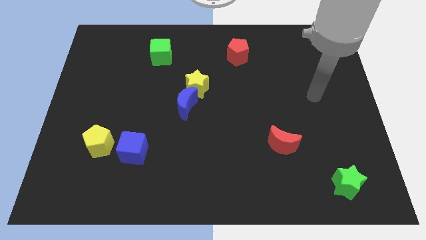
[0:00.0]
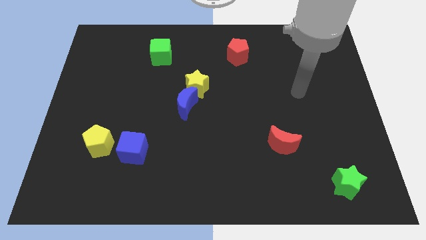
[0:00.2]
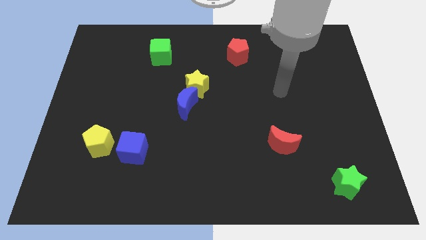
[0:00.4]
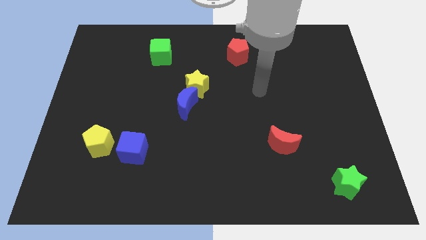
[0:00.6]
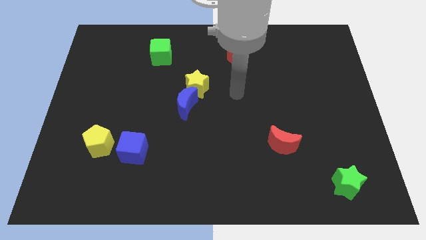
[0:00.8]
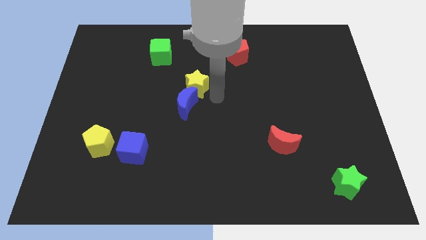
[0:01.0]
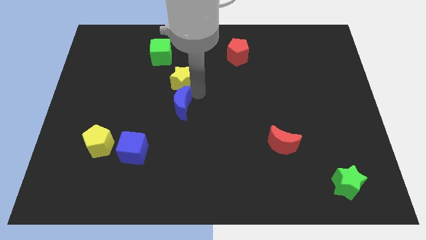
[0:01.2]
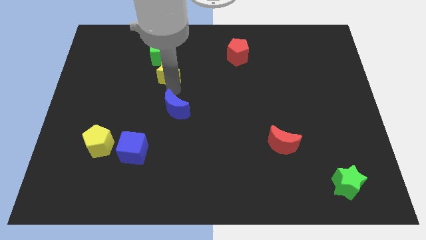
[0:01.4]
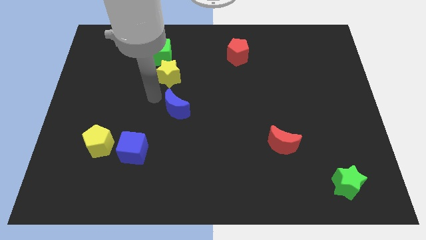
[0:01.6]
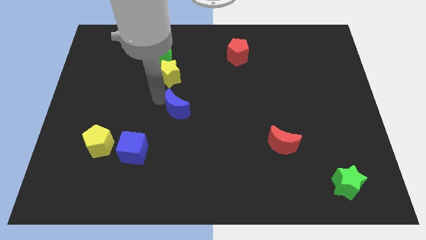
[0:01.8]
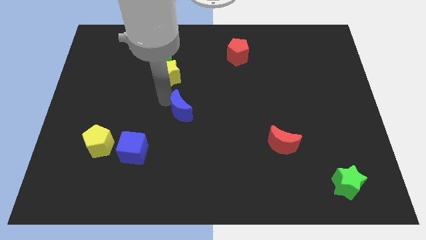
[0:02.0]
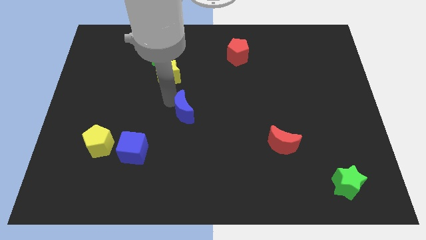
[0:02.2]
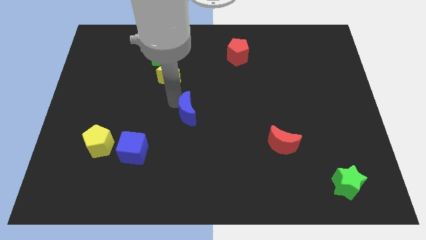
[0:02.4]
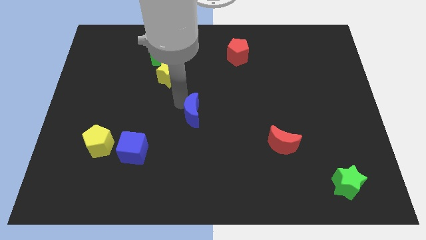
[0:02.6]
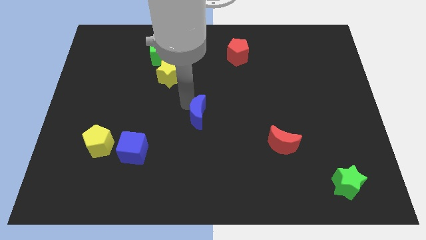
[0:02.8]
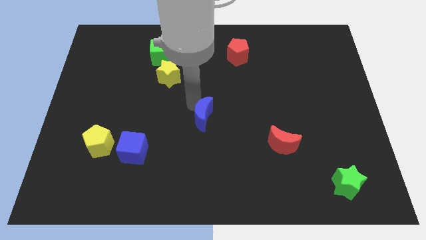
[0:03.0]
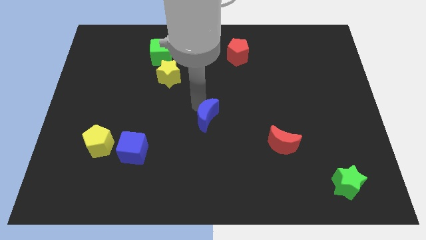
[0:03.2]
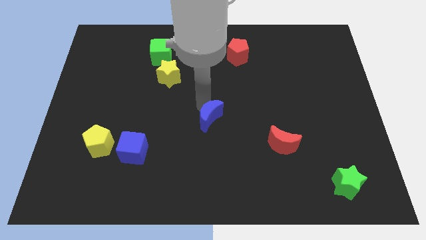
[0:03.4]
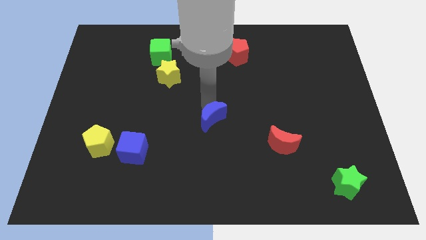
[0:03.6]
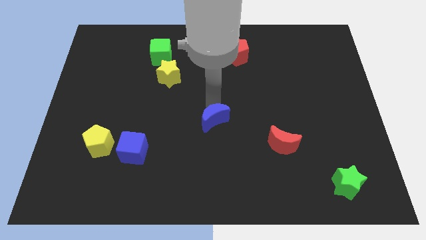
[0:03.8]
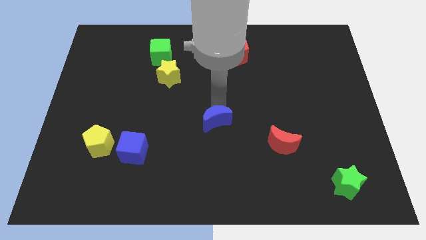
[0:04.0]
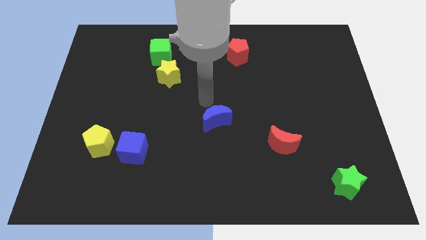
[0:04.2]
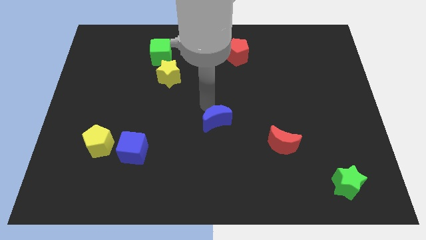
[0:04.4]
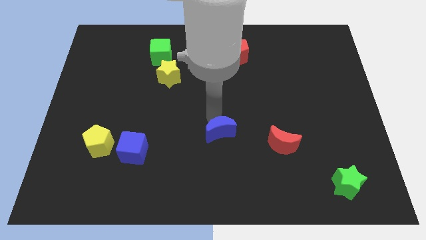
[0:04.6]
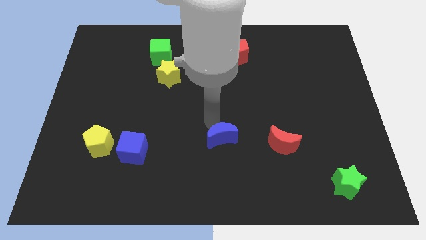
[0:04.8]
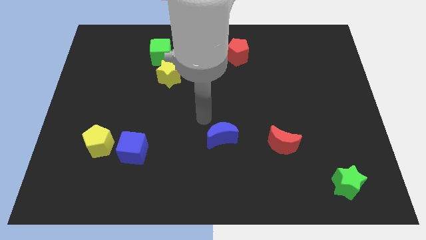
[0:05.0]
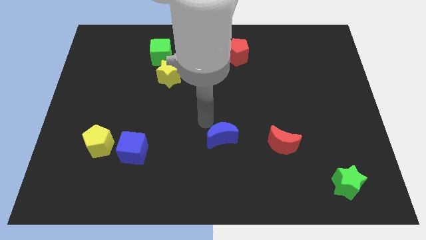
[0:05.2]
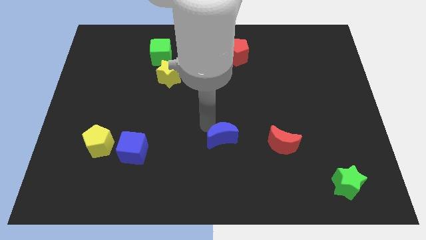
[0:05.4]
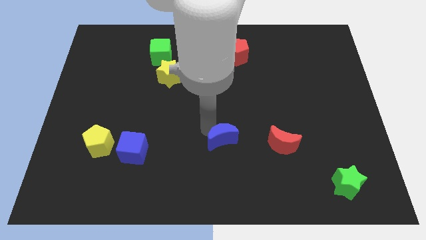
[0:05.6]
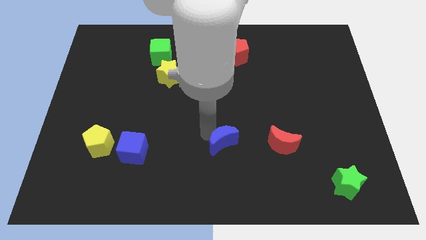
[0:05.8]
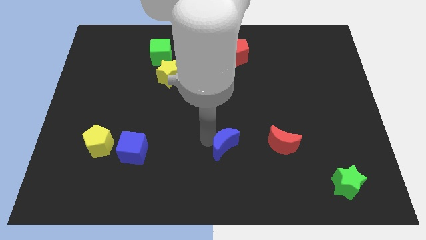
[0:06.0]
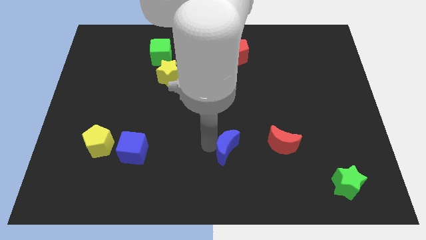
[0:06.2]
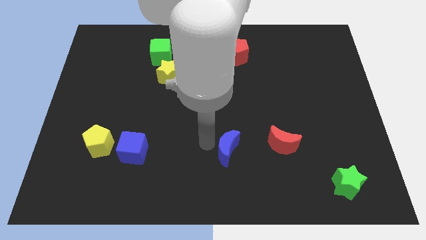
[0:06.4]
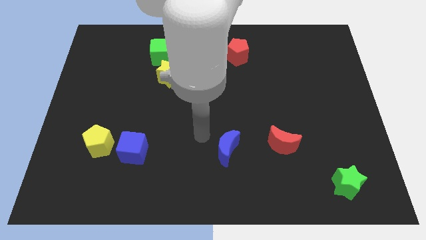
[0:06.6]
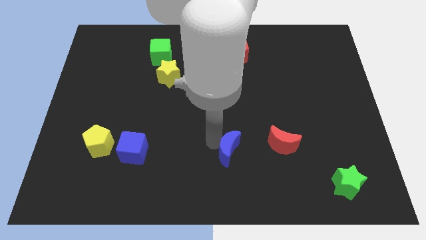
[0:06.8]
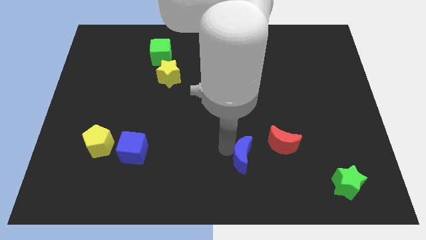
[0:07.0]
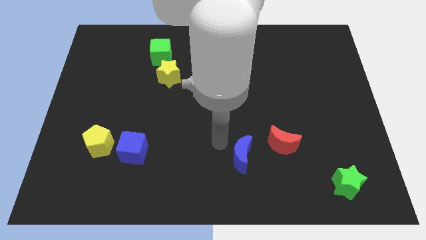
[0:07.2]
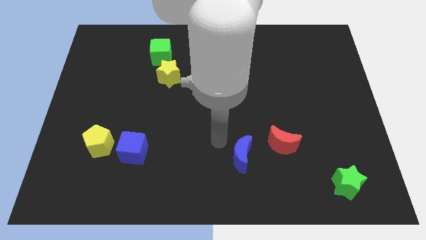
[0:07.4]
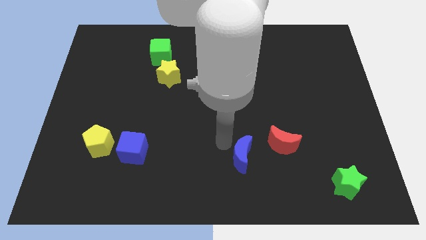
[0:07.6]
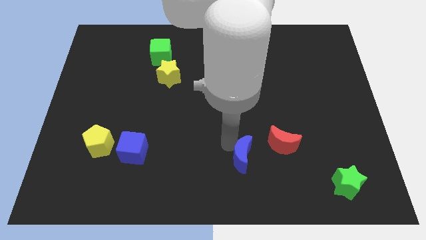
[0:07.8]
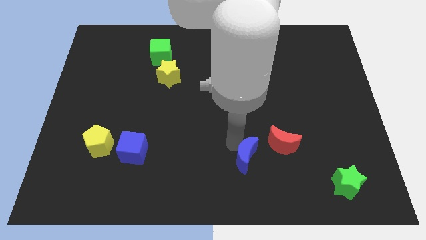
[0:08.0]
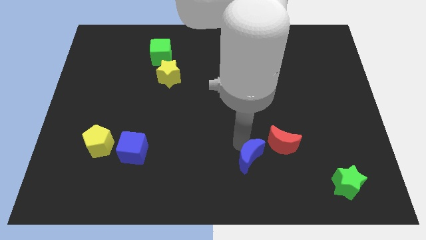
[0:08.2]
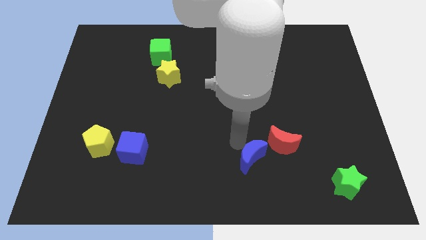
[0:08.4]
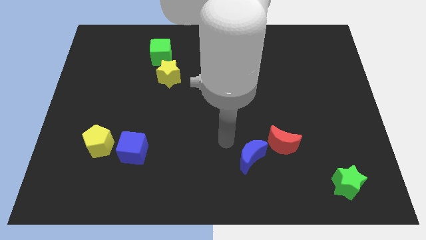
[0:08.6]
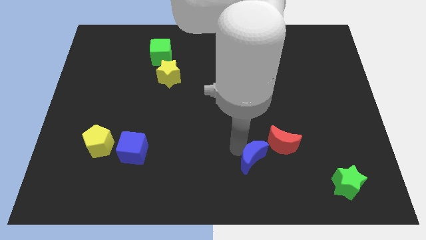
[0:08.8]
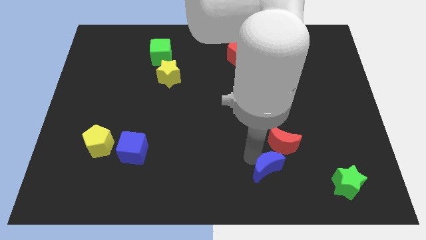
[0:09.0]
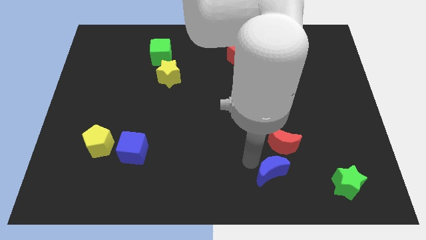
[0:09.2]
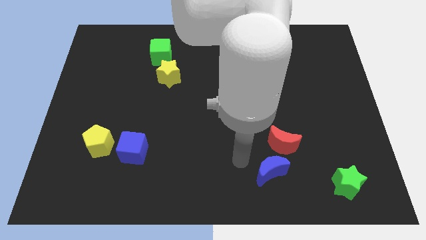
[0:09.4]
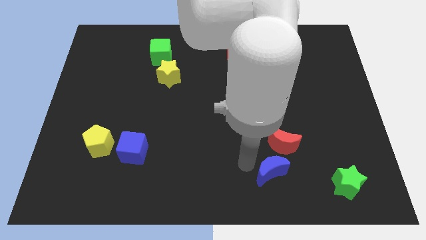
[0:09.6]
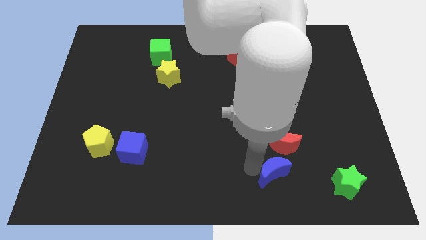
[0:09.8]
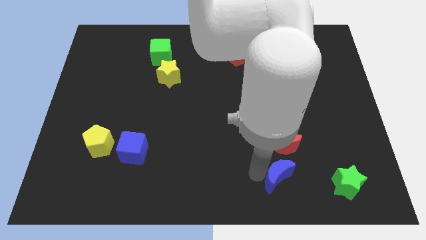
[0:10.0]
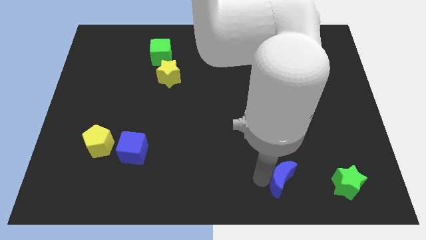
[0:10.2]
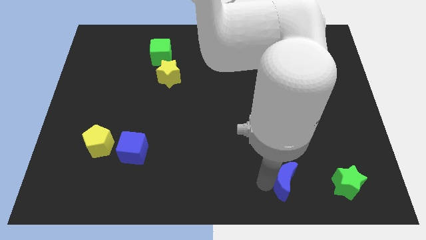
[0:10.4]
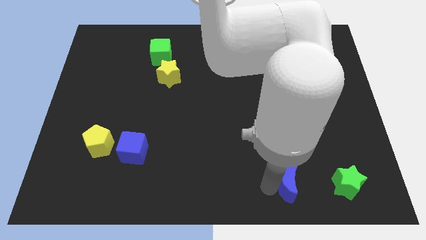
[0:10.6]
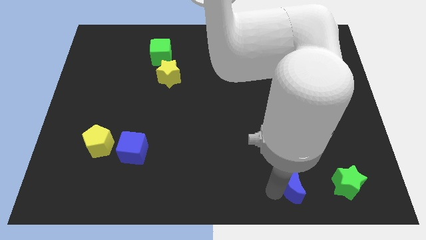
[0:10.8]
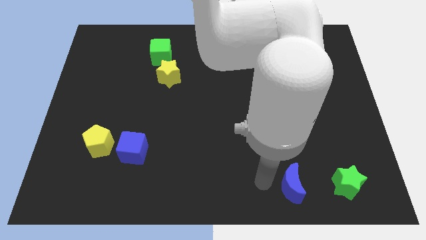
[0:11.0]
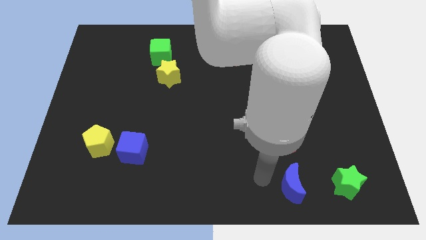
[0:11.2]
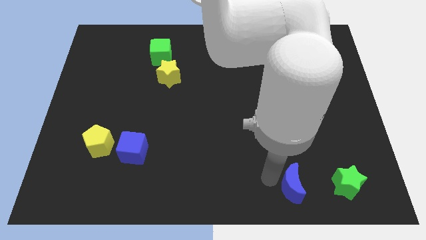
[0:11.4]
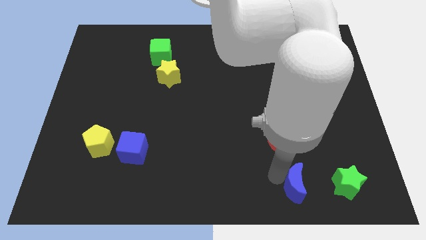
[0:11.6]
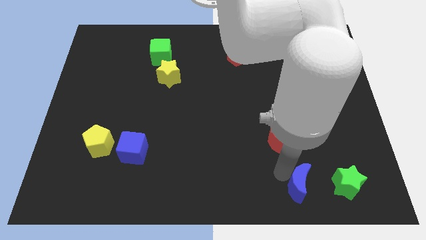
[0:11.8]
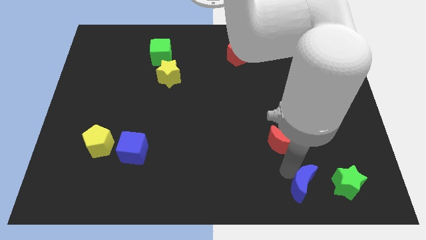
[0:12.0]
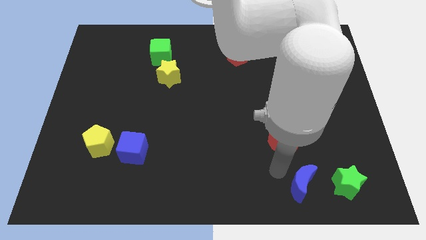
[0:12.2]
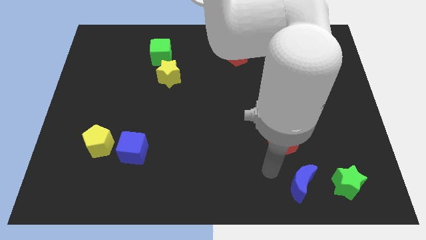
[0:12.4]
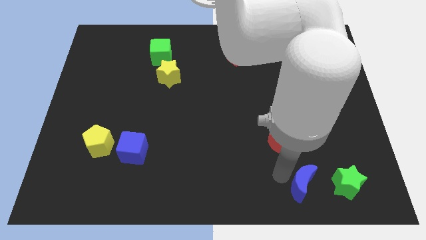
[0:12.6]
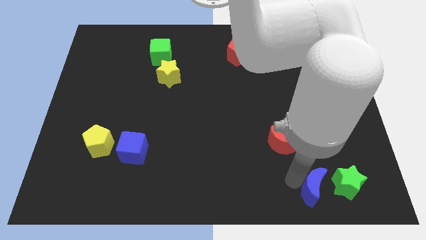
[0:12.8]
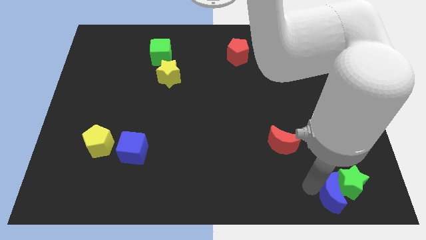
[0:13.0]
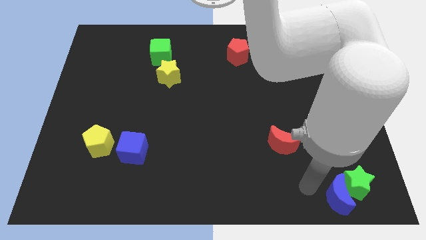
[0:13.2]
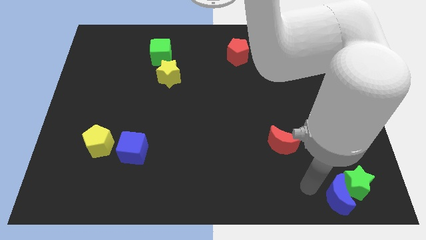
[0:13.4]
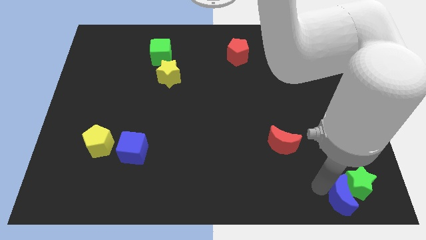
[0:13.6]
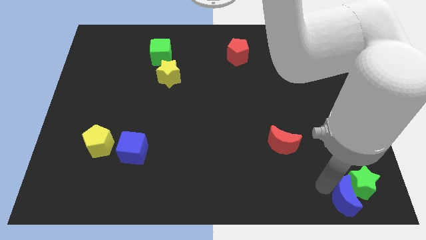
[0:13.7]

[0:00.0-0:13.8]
slide the blue moon to the bottom right of the board

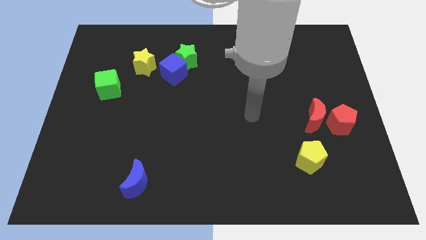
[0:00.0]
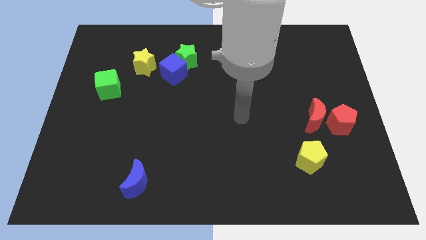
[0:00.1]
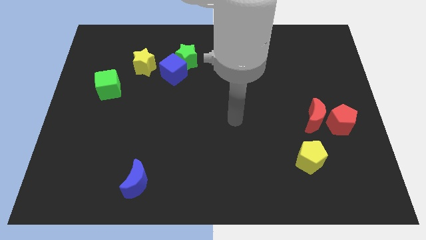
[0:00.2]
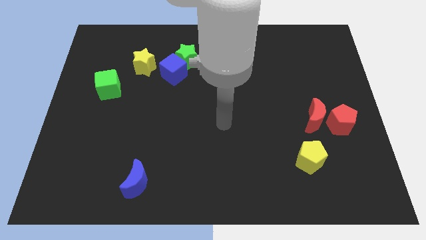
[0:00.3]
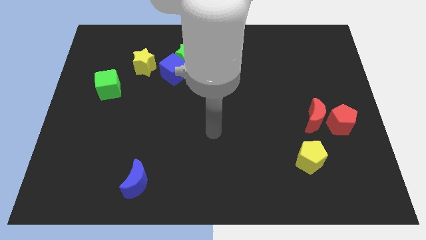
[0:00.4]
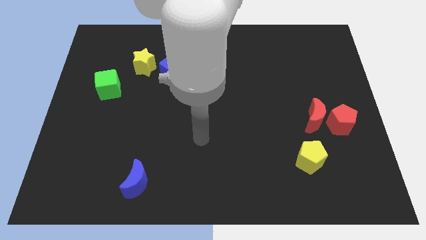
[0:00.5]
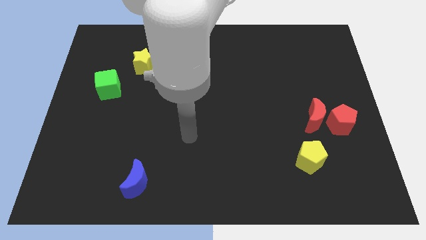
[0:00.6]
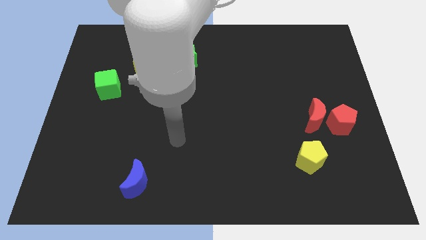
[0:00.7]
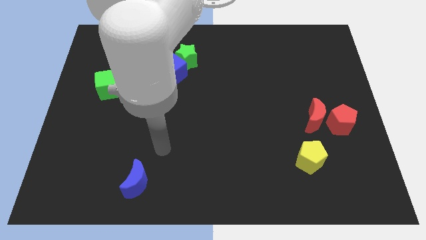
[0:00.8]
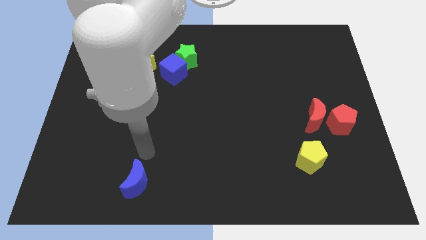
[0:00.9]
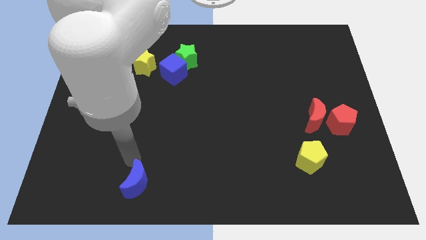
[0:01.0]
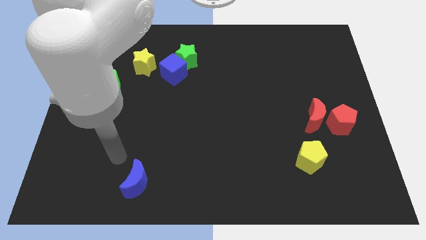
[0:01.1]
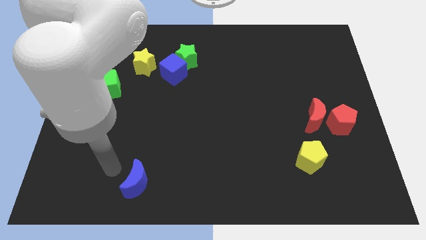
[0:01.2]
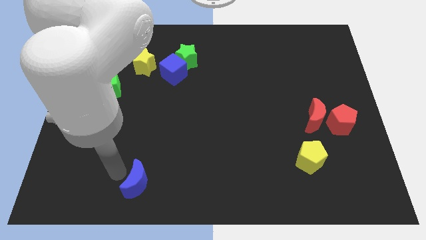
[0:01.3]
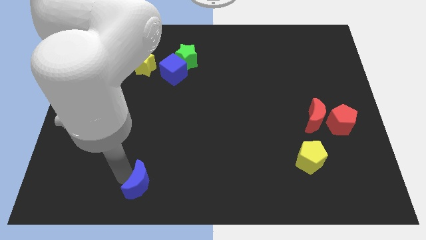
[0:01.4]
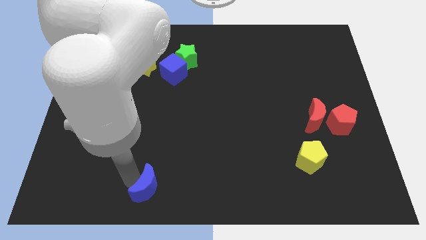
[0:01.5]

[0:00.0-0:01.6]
put the blue moon to the bottom

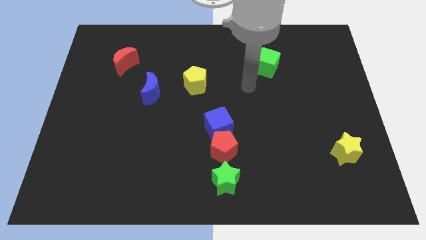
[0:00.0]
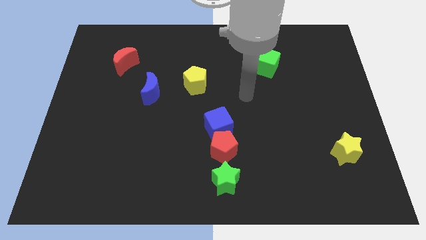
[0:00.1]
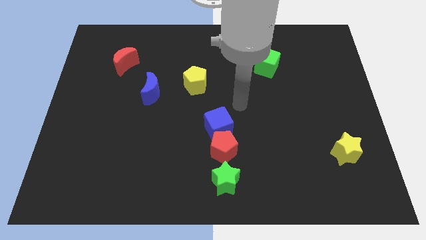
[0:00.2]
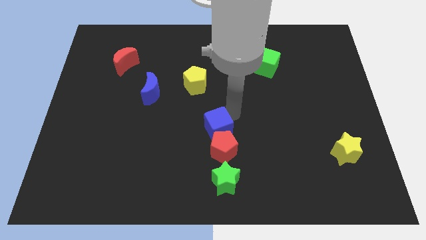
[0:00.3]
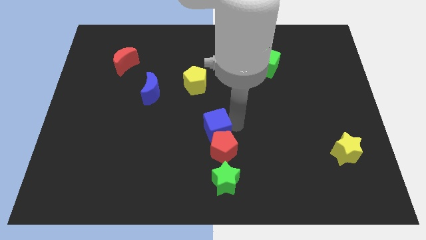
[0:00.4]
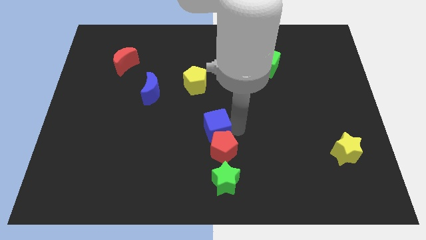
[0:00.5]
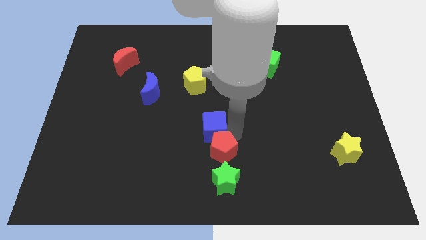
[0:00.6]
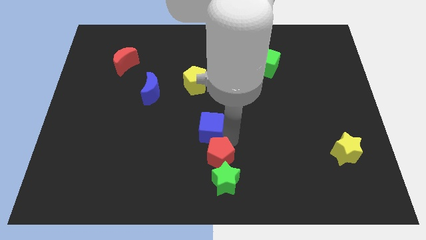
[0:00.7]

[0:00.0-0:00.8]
slide the red pentagon to the bottom
